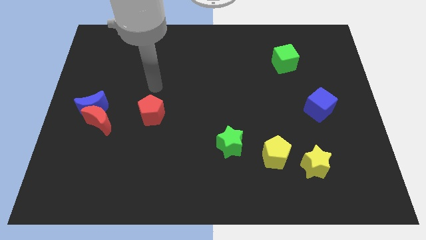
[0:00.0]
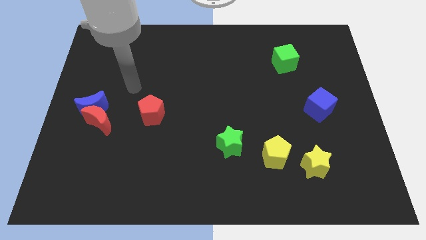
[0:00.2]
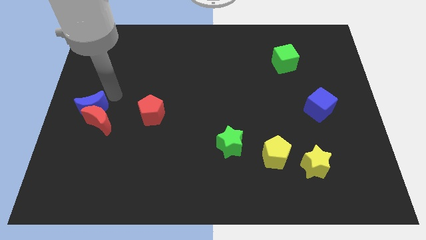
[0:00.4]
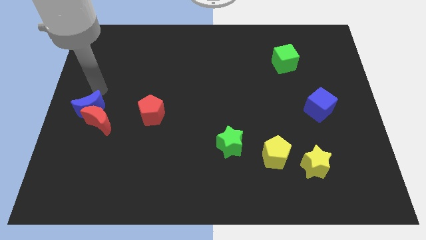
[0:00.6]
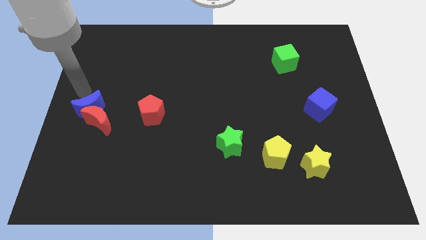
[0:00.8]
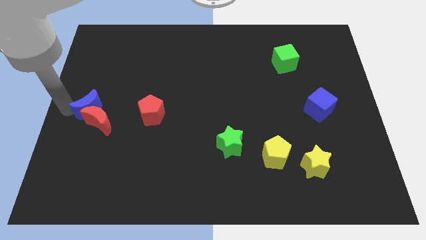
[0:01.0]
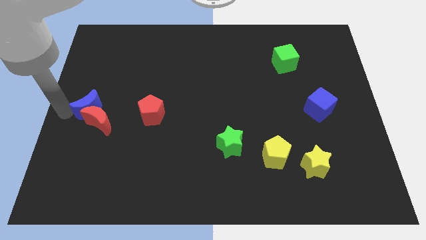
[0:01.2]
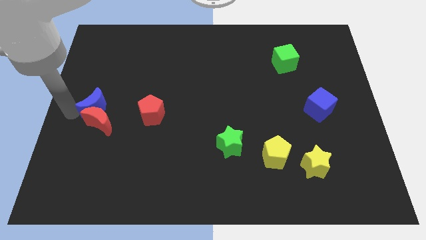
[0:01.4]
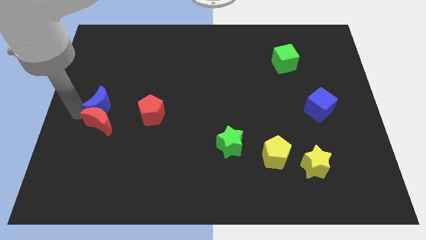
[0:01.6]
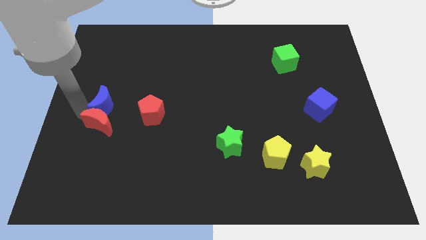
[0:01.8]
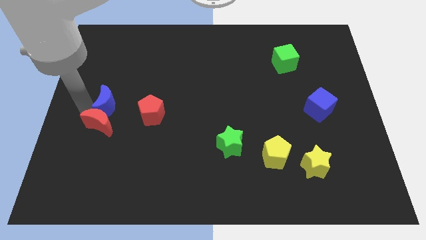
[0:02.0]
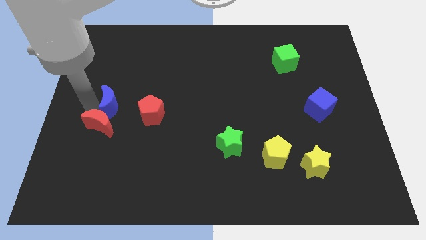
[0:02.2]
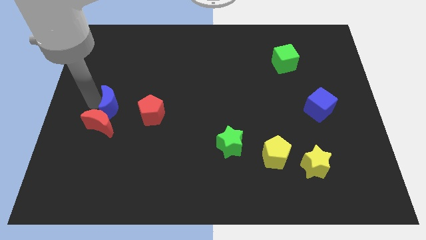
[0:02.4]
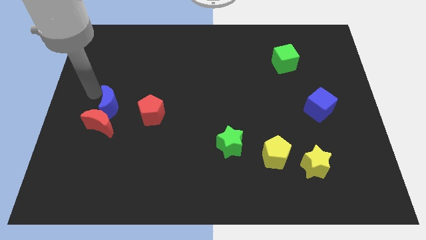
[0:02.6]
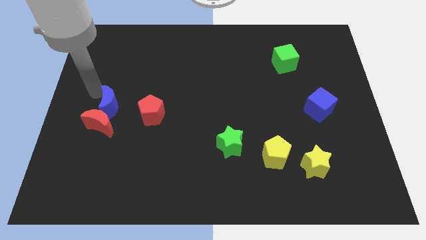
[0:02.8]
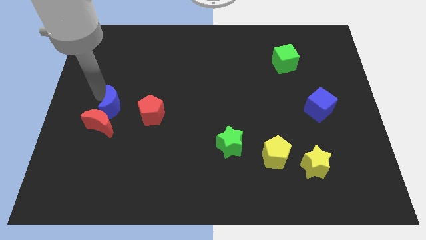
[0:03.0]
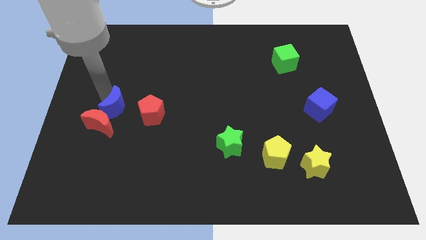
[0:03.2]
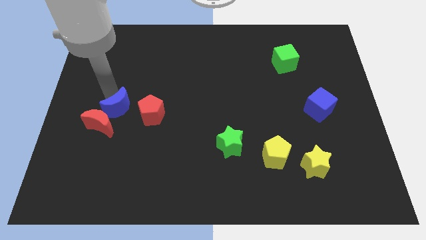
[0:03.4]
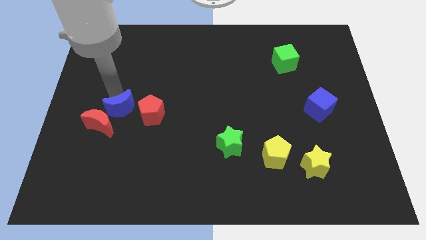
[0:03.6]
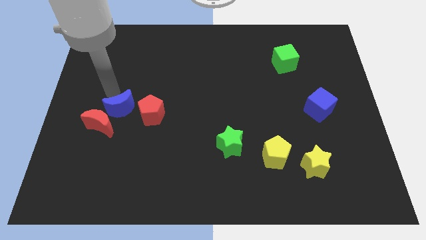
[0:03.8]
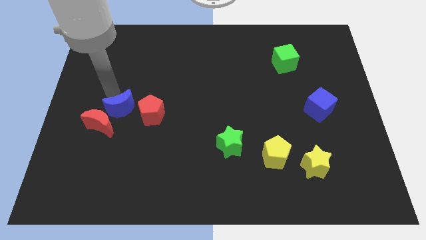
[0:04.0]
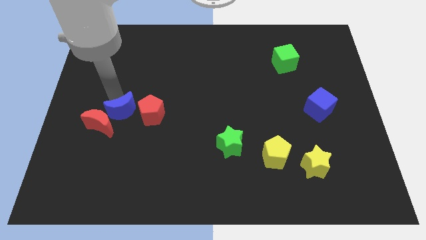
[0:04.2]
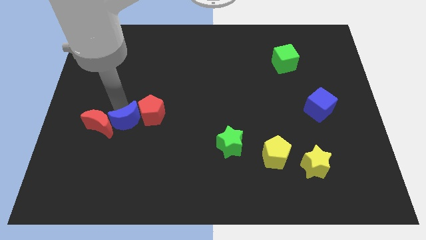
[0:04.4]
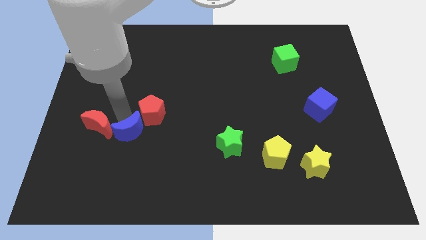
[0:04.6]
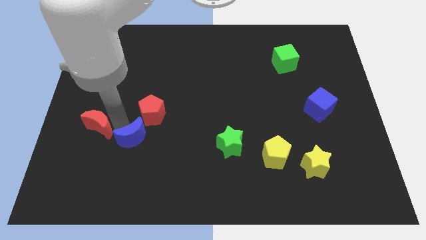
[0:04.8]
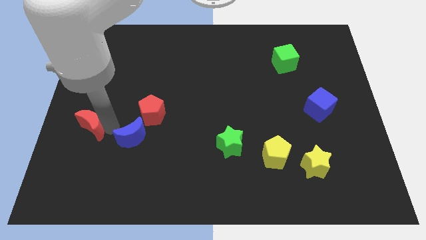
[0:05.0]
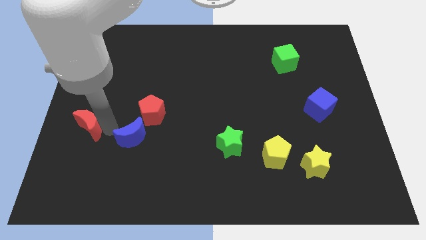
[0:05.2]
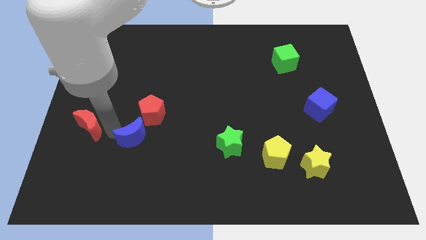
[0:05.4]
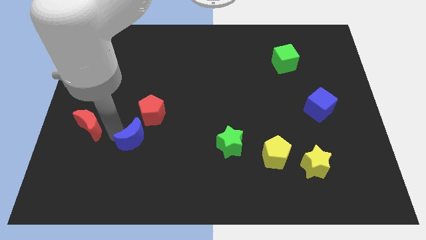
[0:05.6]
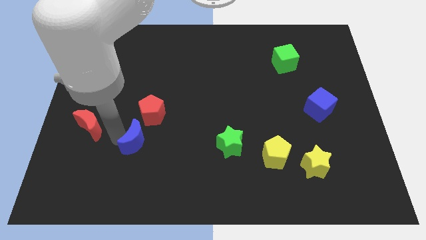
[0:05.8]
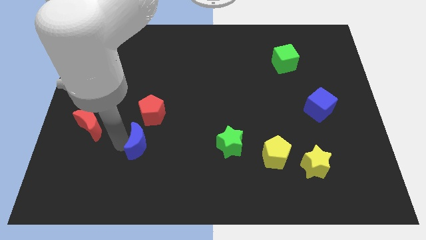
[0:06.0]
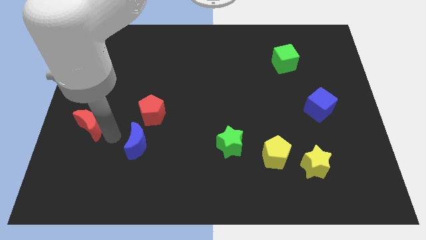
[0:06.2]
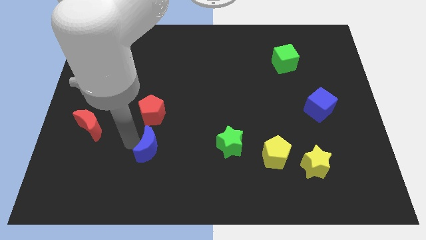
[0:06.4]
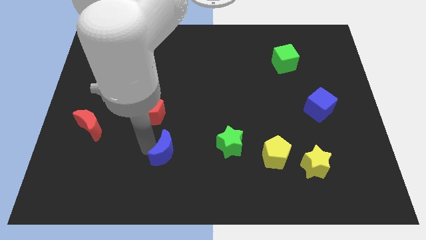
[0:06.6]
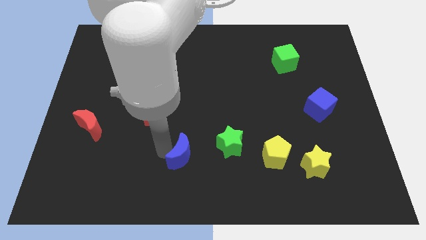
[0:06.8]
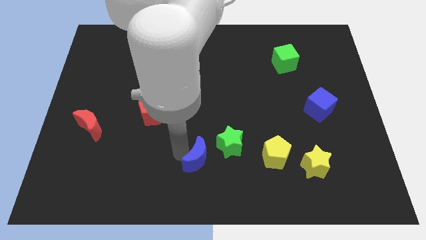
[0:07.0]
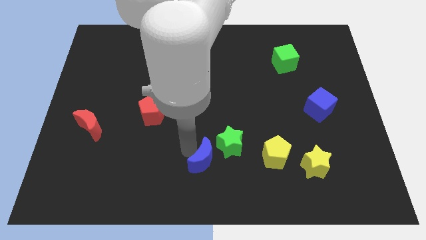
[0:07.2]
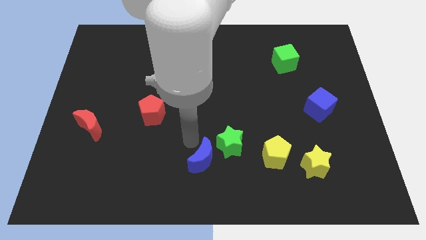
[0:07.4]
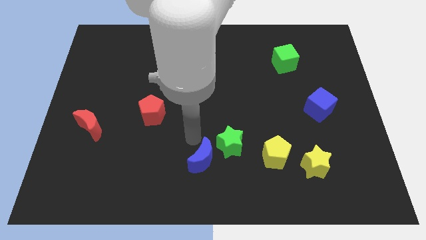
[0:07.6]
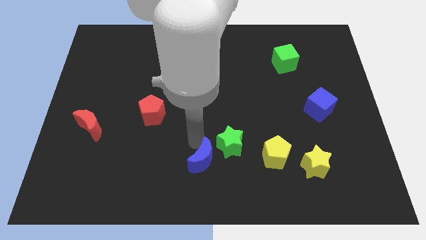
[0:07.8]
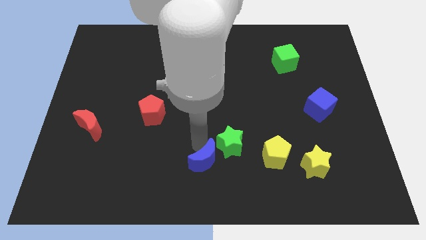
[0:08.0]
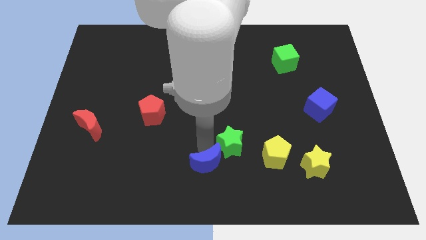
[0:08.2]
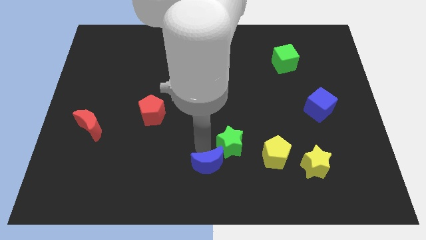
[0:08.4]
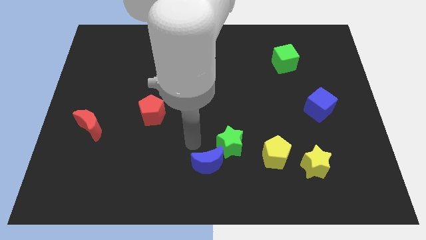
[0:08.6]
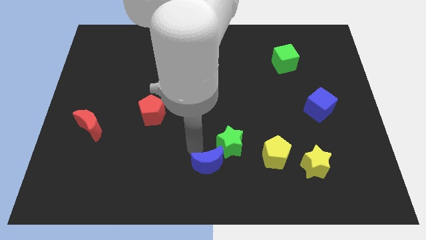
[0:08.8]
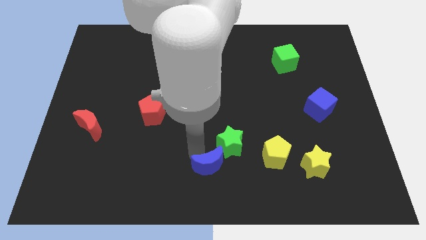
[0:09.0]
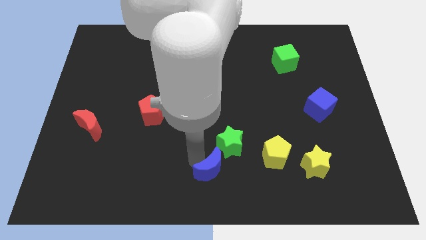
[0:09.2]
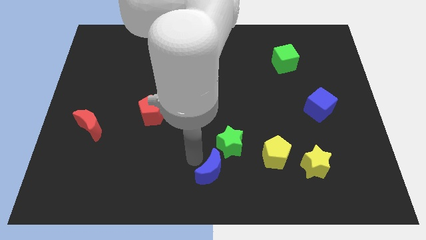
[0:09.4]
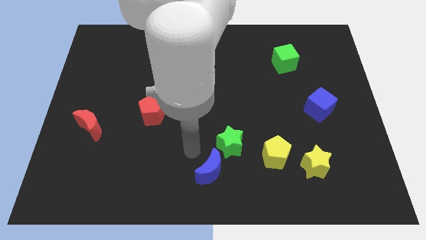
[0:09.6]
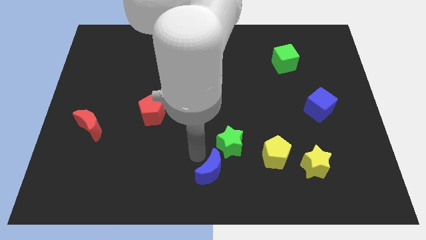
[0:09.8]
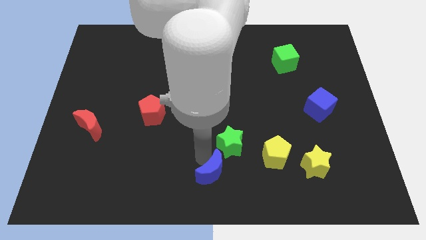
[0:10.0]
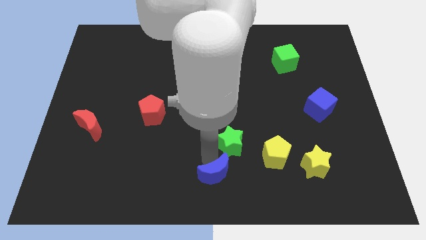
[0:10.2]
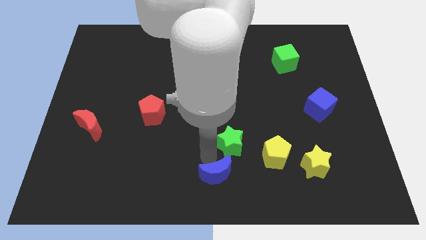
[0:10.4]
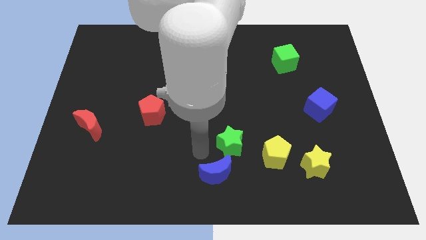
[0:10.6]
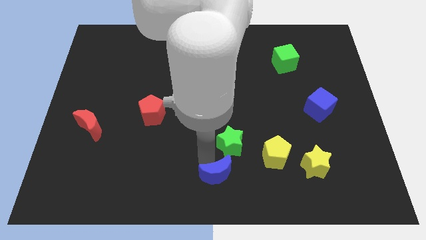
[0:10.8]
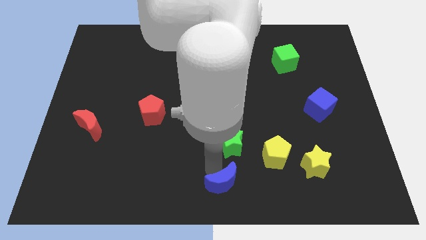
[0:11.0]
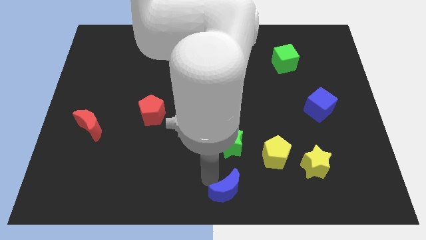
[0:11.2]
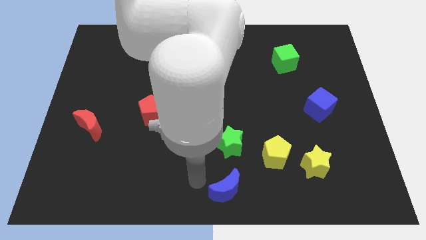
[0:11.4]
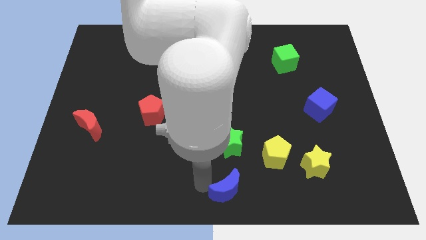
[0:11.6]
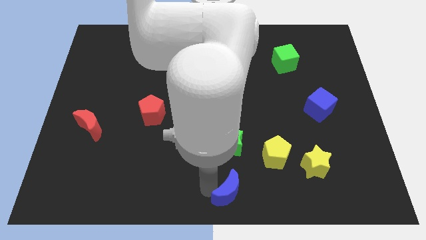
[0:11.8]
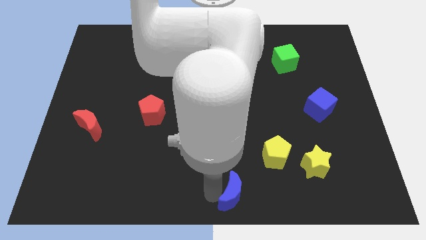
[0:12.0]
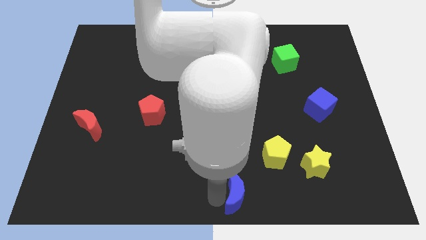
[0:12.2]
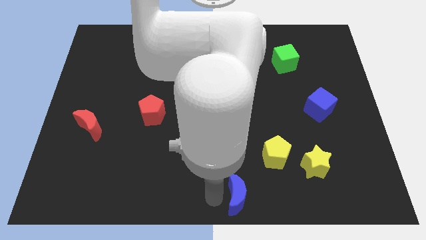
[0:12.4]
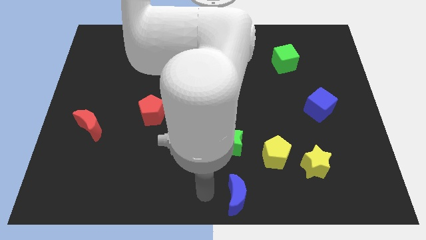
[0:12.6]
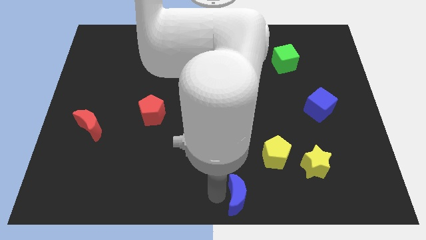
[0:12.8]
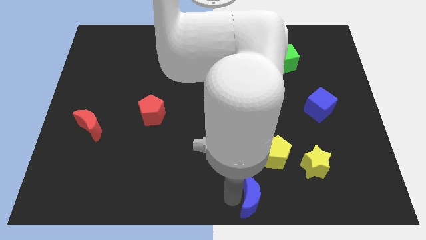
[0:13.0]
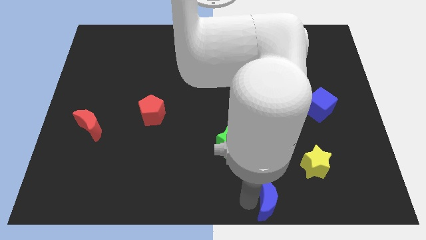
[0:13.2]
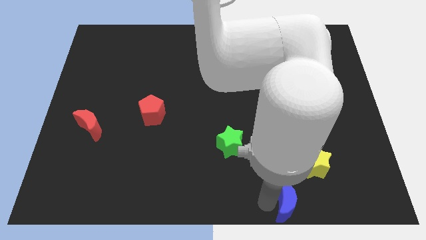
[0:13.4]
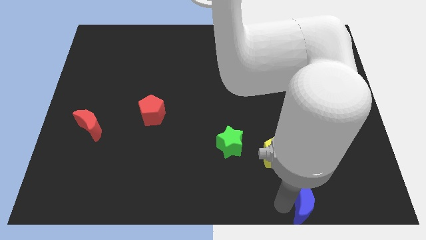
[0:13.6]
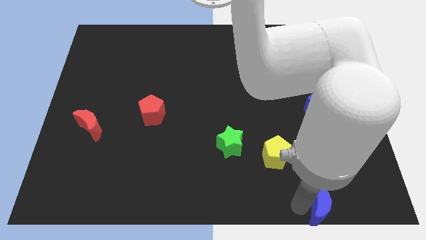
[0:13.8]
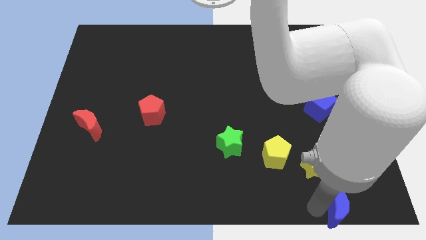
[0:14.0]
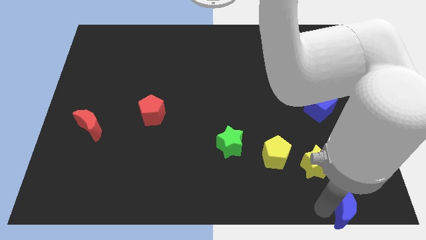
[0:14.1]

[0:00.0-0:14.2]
put the blue moon to the bottom right corner
